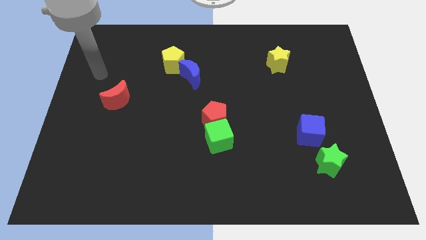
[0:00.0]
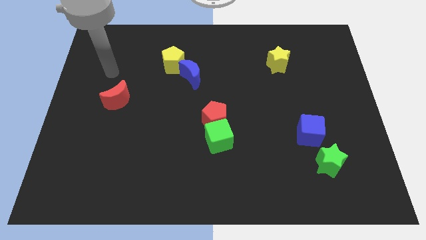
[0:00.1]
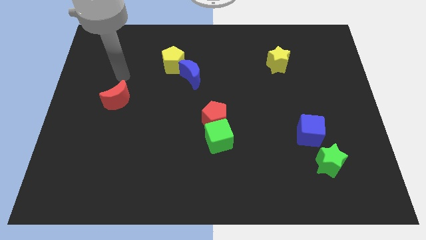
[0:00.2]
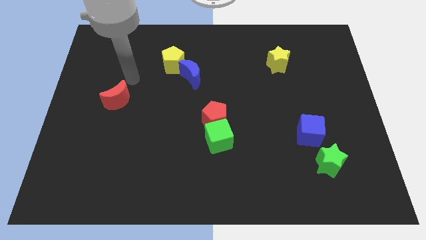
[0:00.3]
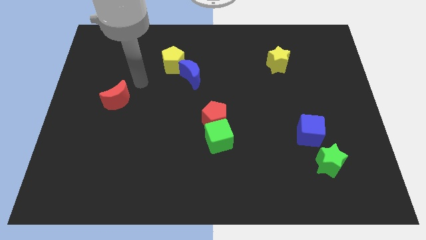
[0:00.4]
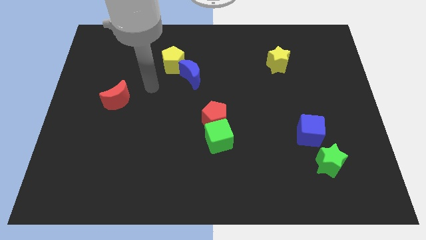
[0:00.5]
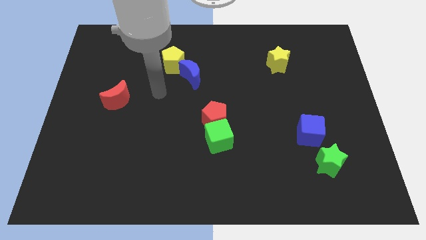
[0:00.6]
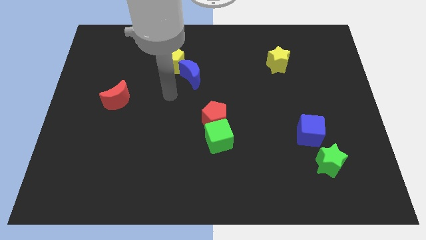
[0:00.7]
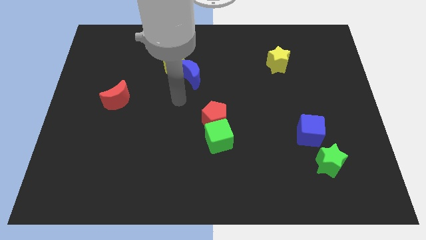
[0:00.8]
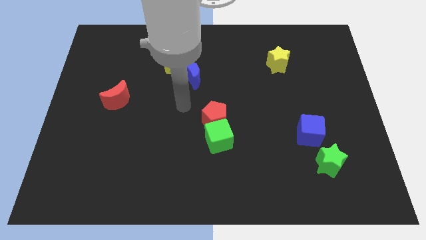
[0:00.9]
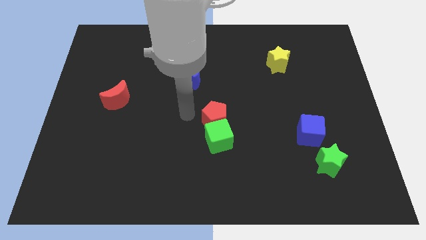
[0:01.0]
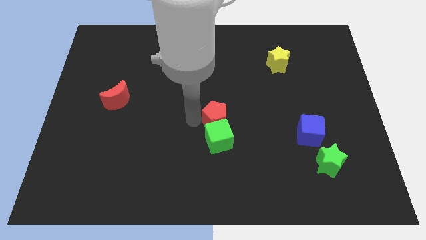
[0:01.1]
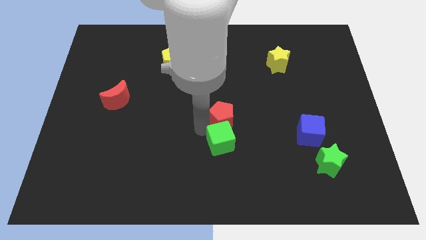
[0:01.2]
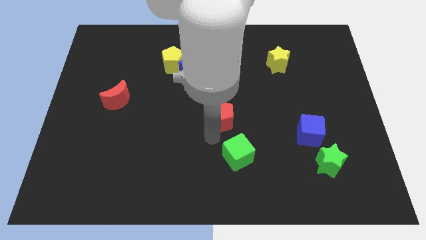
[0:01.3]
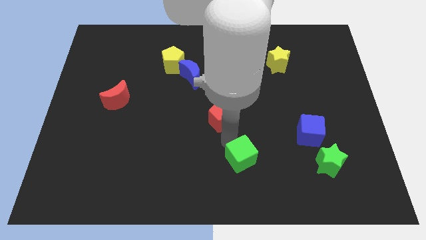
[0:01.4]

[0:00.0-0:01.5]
pull the red pentagon apart from the green cube

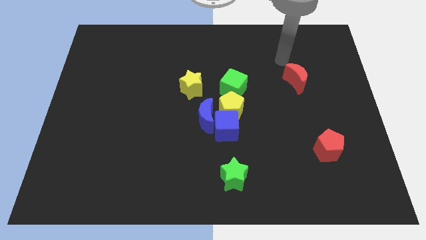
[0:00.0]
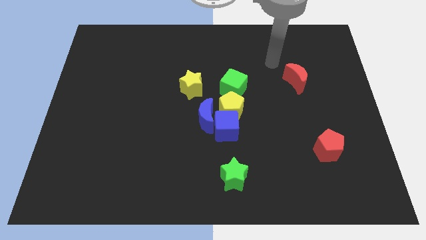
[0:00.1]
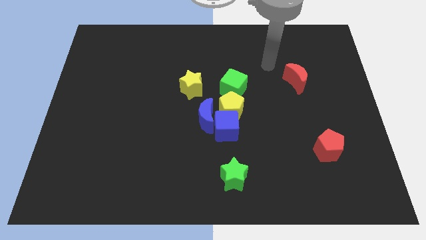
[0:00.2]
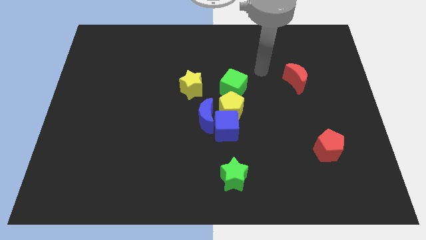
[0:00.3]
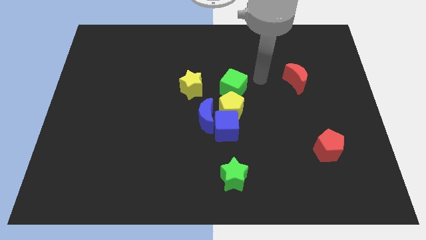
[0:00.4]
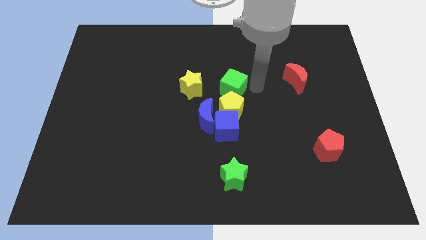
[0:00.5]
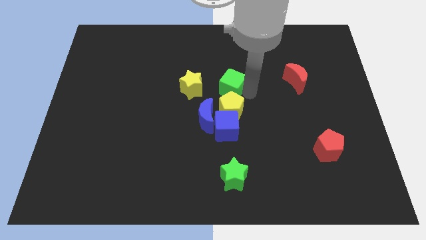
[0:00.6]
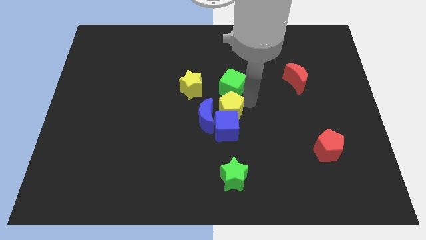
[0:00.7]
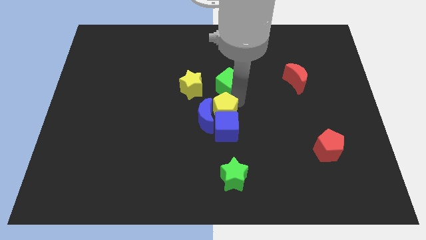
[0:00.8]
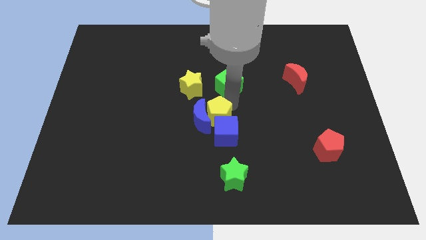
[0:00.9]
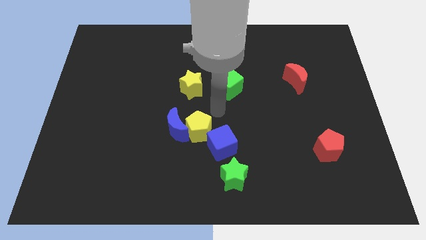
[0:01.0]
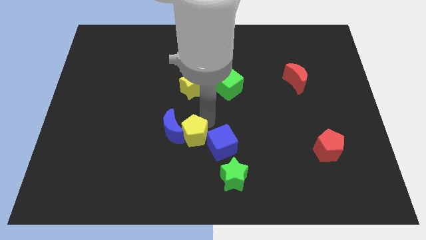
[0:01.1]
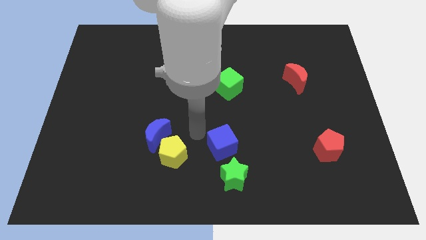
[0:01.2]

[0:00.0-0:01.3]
separate the blue cube from the blue moon and yellow pentagon

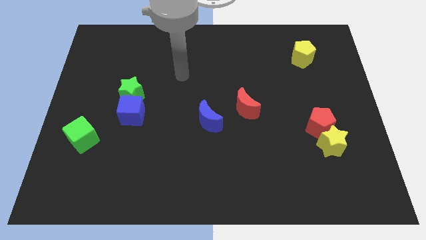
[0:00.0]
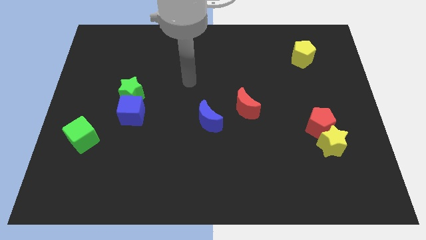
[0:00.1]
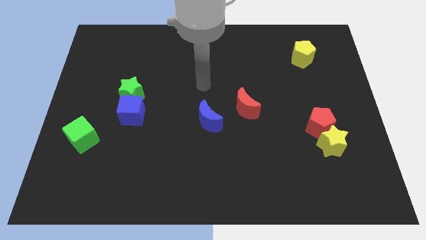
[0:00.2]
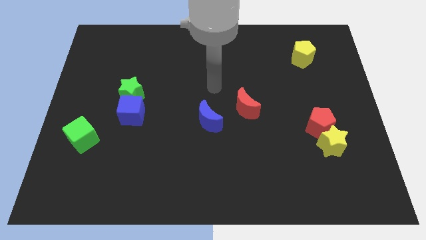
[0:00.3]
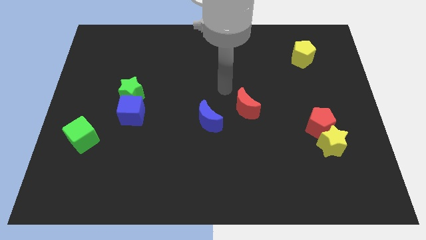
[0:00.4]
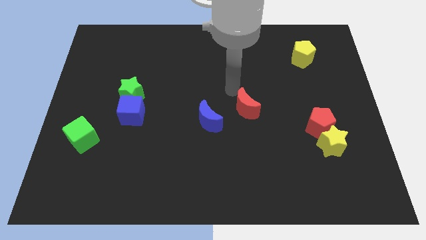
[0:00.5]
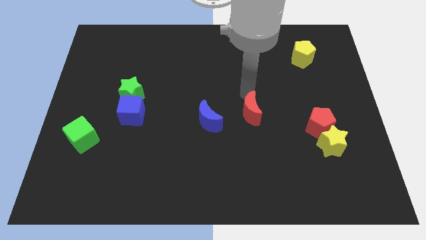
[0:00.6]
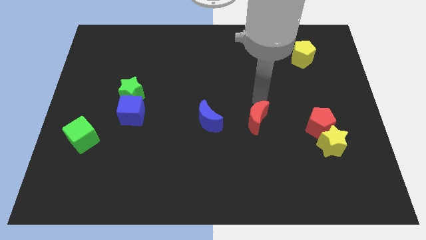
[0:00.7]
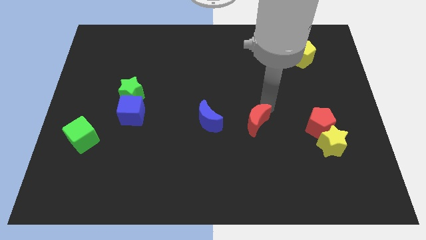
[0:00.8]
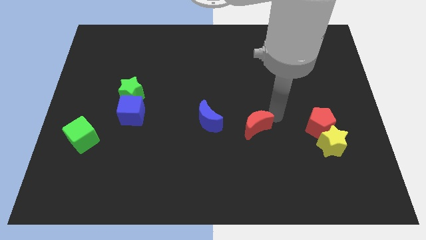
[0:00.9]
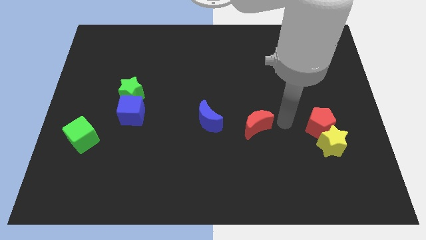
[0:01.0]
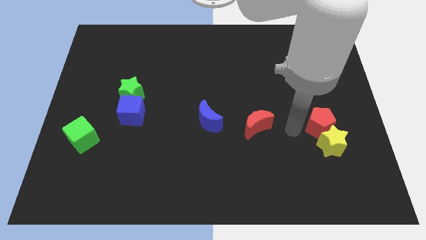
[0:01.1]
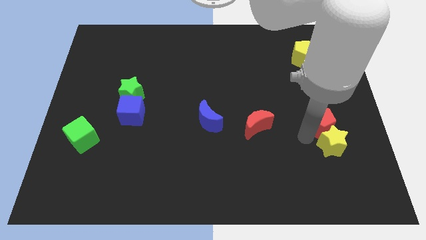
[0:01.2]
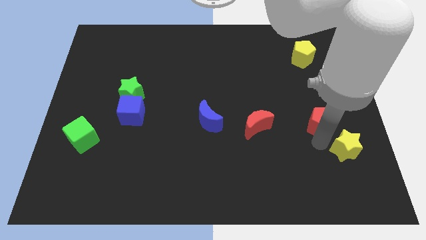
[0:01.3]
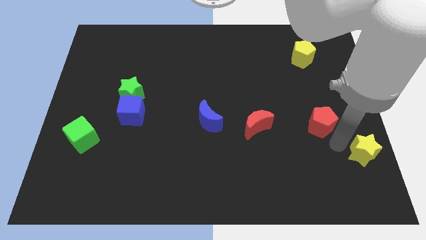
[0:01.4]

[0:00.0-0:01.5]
separate the red pentagon from the yellow star

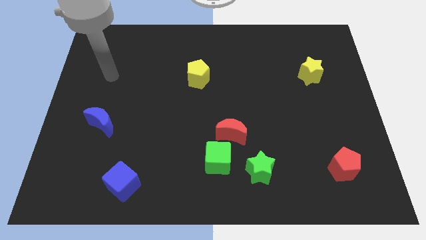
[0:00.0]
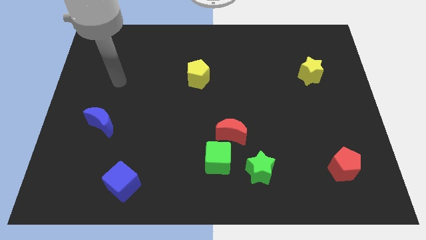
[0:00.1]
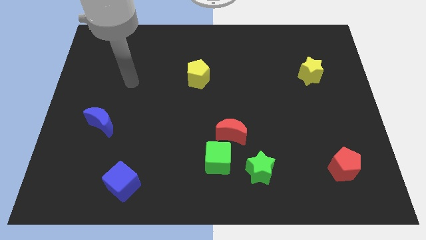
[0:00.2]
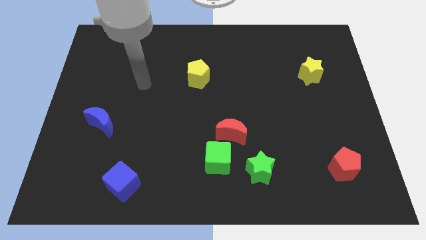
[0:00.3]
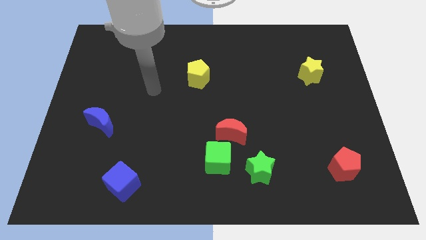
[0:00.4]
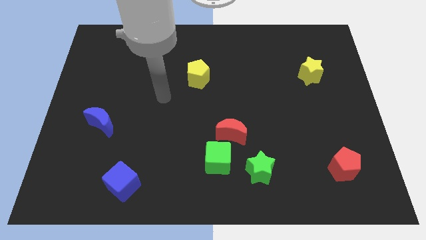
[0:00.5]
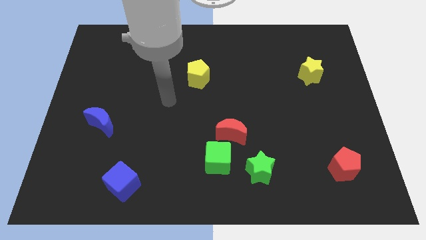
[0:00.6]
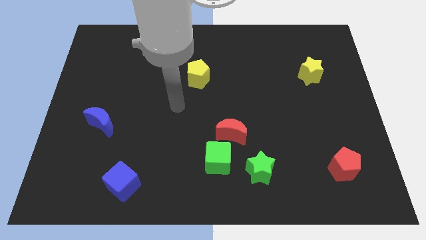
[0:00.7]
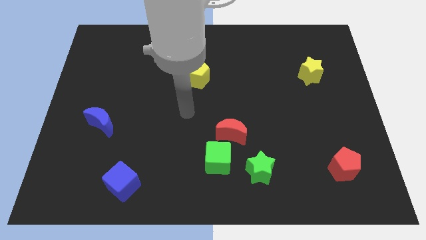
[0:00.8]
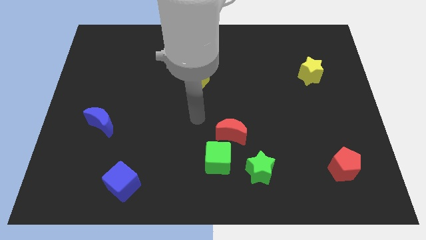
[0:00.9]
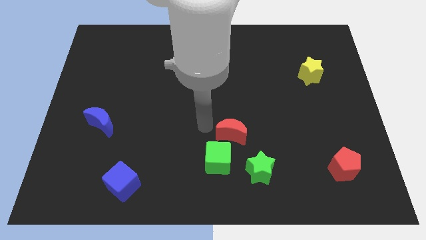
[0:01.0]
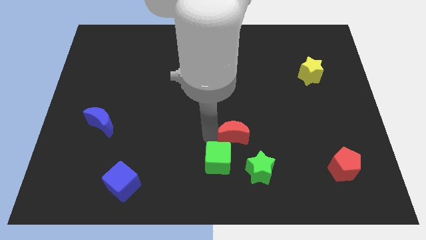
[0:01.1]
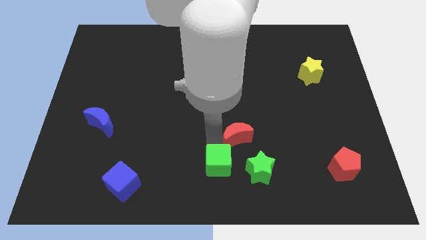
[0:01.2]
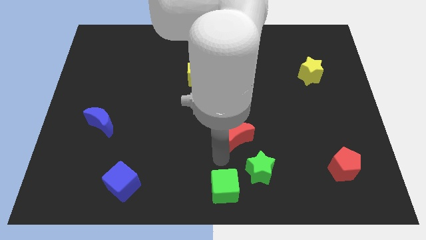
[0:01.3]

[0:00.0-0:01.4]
separate the red moon from the green cube

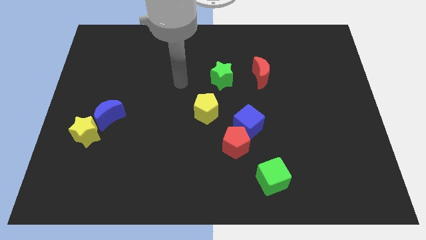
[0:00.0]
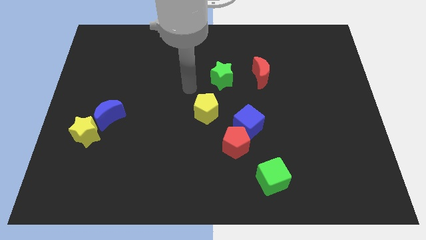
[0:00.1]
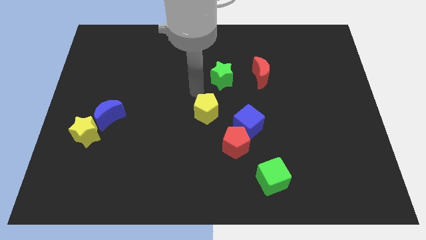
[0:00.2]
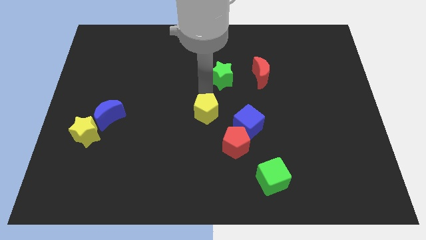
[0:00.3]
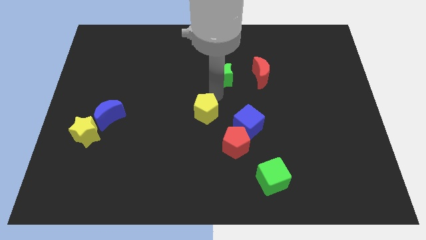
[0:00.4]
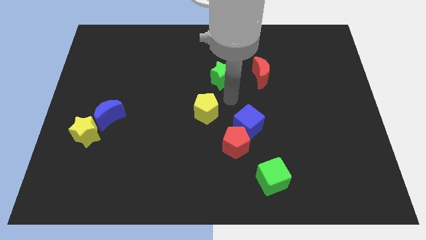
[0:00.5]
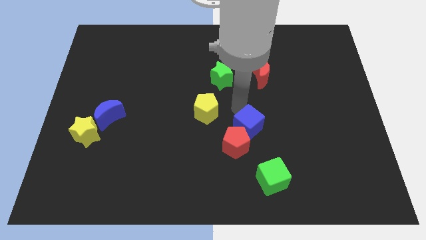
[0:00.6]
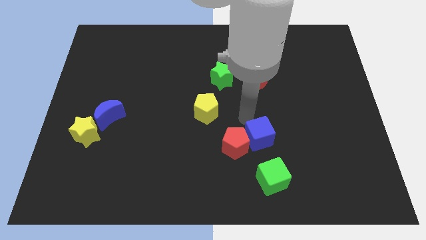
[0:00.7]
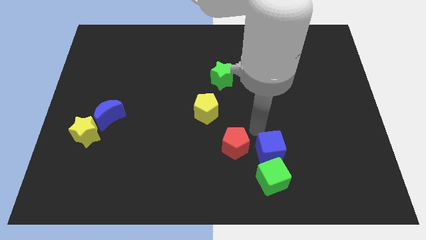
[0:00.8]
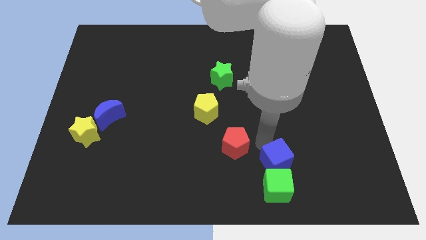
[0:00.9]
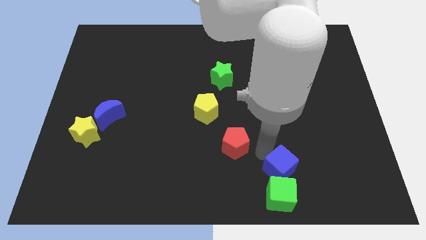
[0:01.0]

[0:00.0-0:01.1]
separate the red pentagon from the blue cube

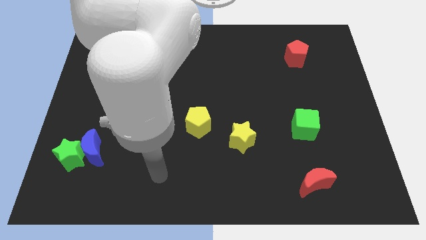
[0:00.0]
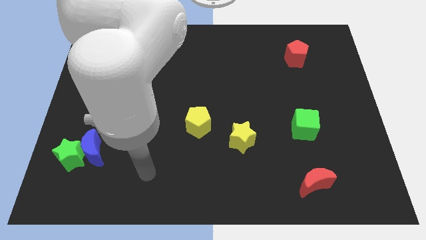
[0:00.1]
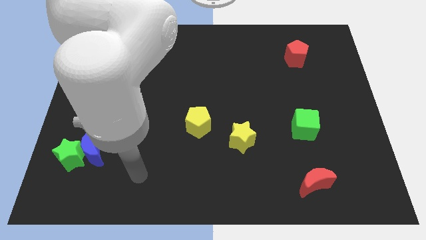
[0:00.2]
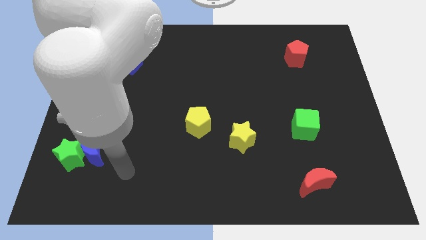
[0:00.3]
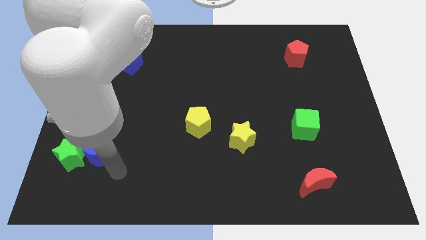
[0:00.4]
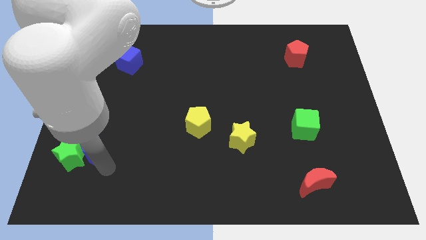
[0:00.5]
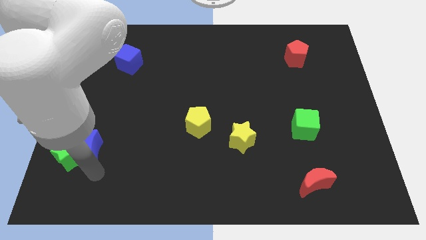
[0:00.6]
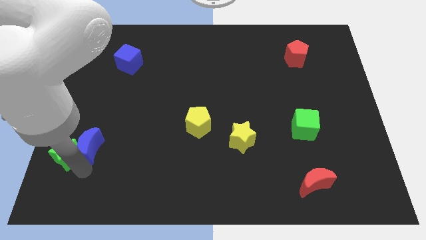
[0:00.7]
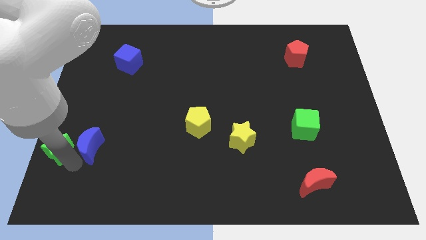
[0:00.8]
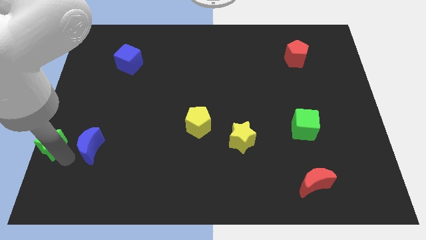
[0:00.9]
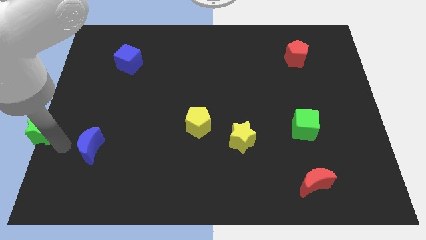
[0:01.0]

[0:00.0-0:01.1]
separate the blue moon from the green star

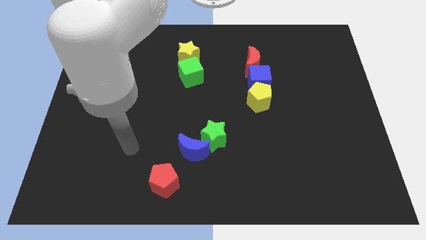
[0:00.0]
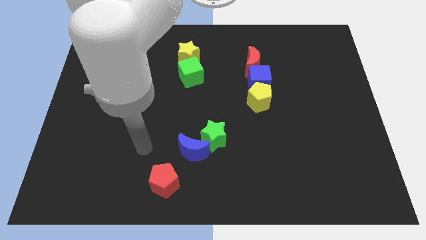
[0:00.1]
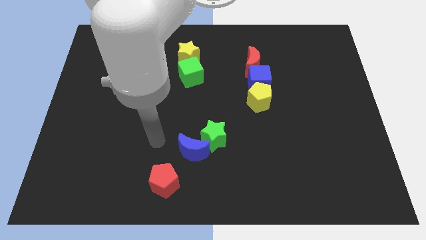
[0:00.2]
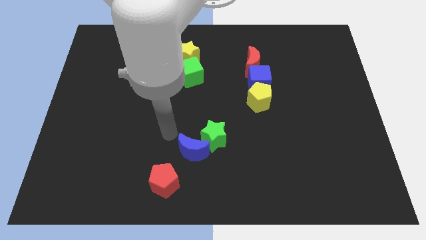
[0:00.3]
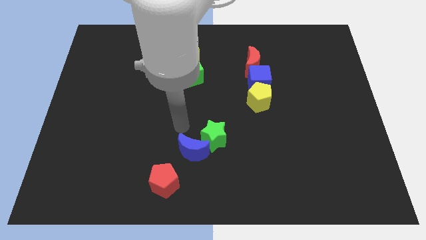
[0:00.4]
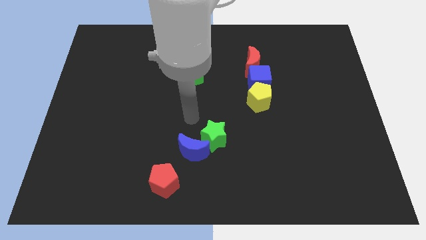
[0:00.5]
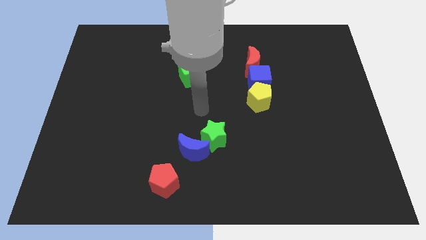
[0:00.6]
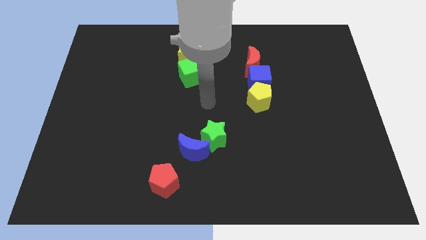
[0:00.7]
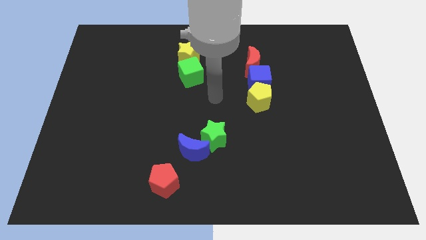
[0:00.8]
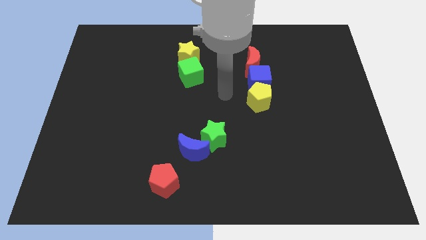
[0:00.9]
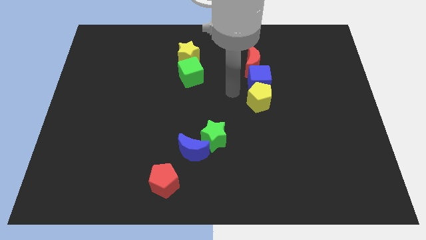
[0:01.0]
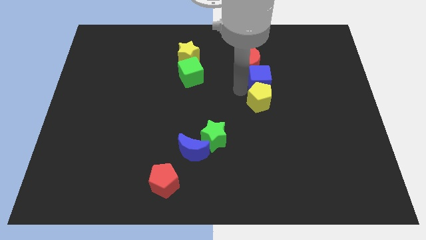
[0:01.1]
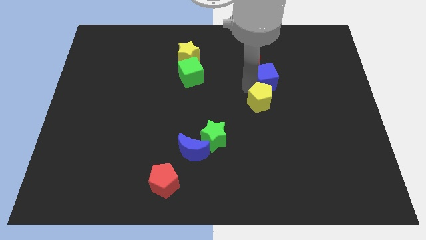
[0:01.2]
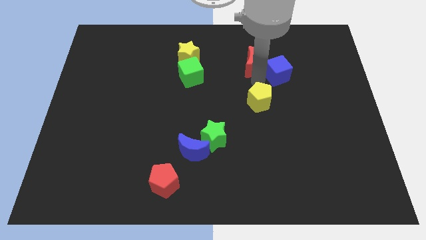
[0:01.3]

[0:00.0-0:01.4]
pull the yellow pentagon apart from the blue cube

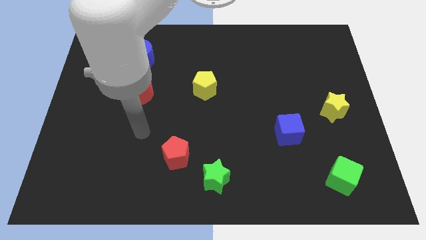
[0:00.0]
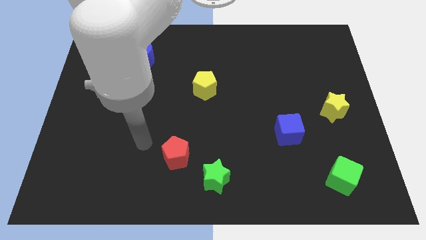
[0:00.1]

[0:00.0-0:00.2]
pull the red pentagon apart from the green star
